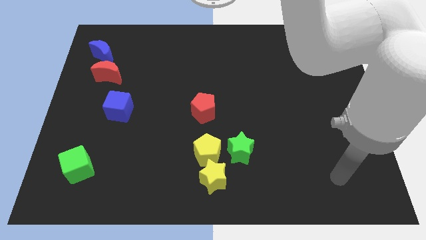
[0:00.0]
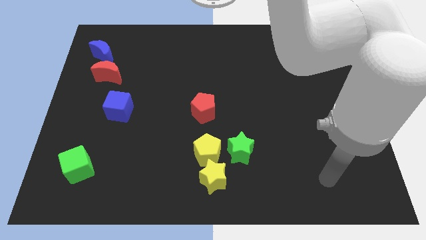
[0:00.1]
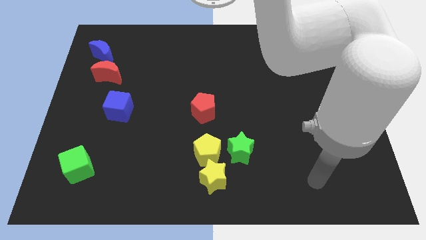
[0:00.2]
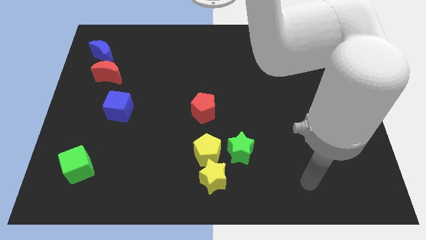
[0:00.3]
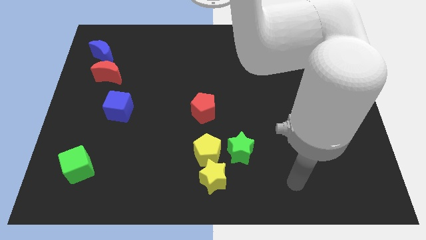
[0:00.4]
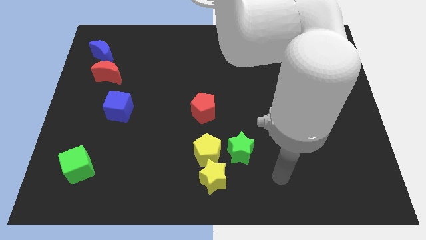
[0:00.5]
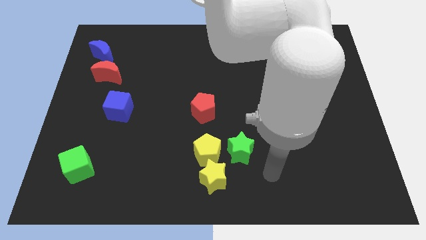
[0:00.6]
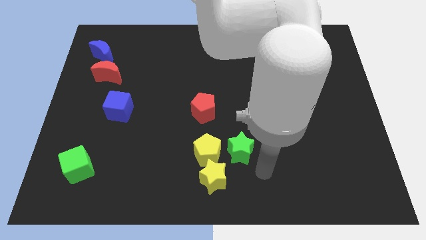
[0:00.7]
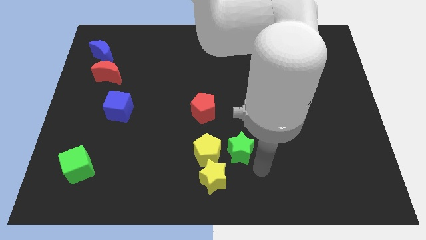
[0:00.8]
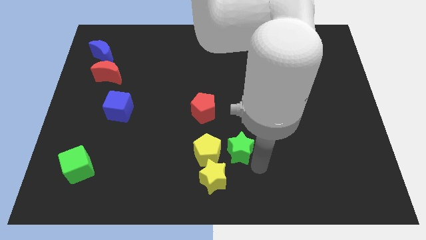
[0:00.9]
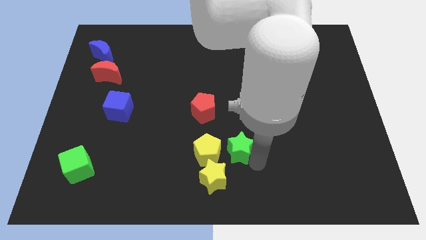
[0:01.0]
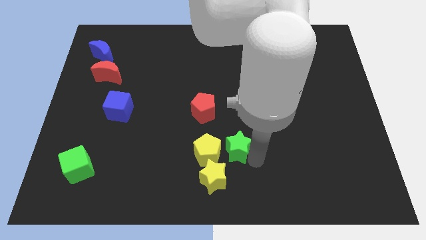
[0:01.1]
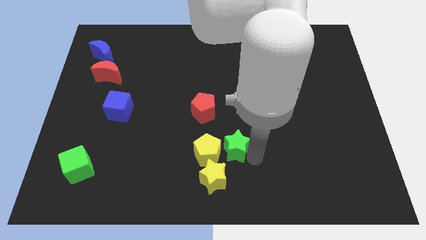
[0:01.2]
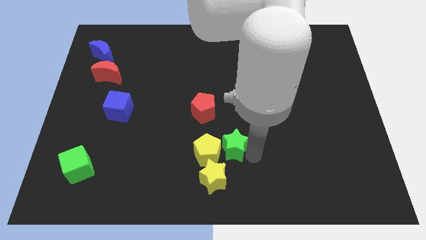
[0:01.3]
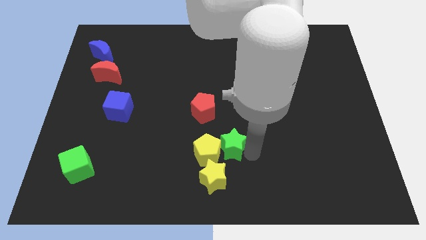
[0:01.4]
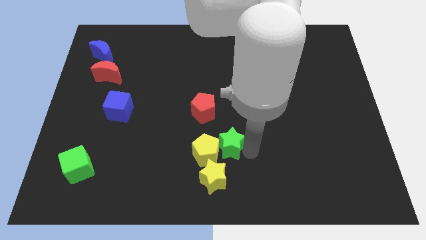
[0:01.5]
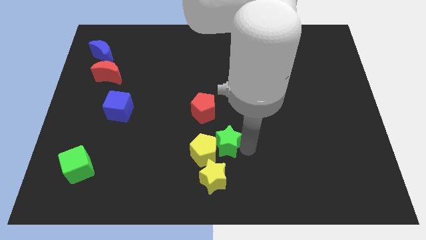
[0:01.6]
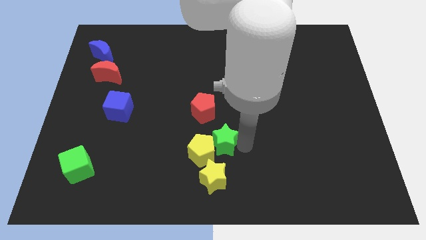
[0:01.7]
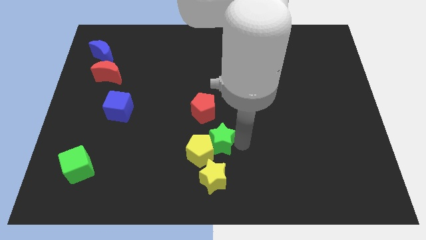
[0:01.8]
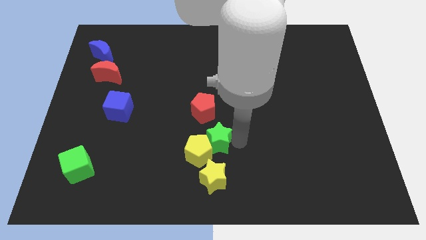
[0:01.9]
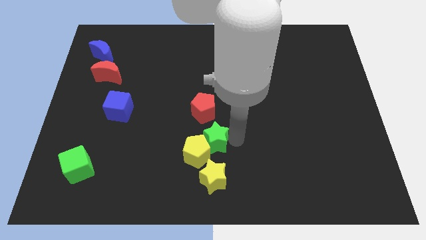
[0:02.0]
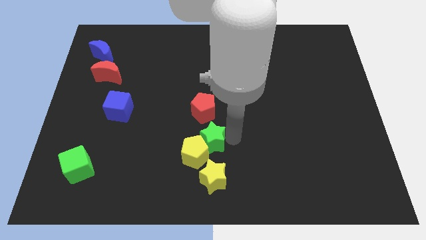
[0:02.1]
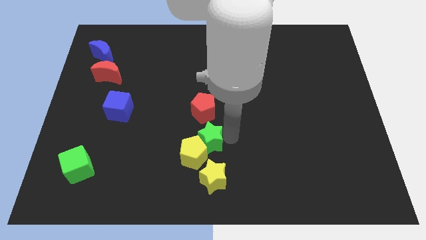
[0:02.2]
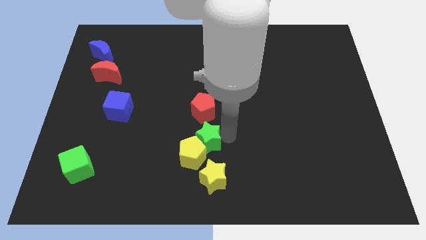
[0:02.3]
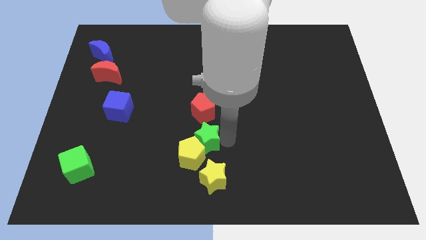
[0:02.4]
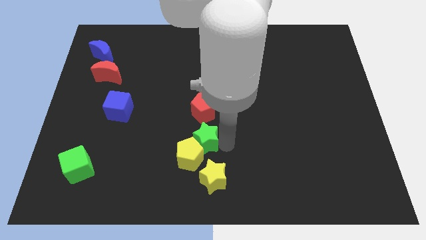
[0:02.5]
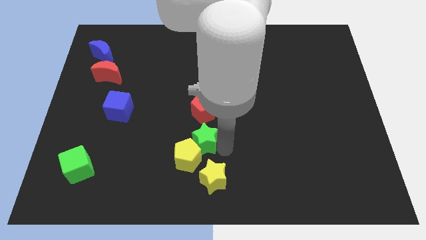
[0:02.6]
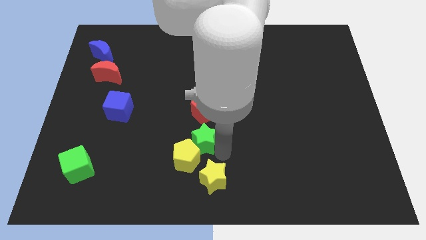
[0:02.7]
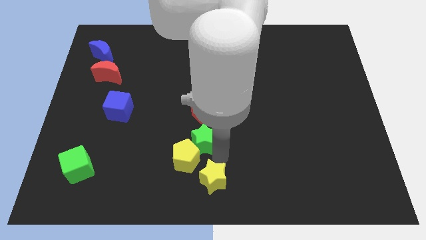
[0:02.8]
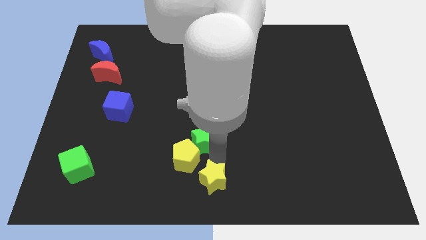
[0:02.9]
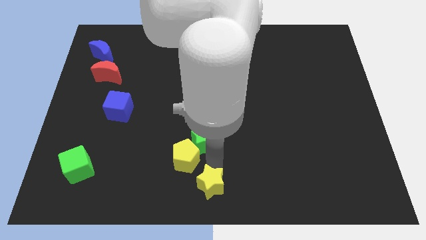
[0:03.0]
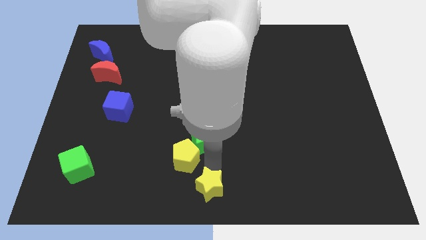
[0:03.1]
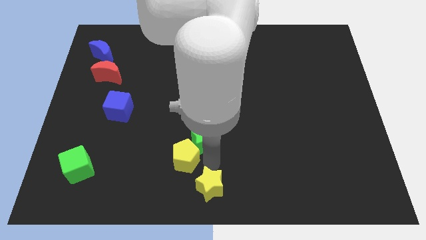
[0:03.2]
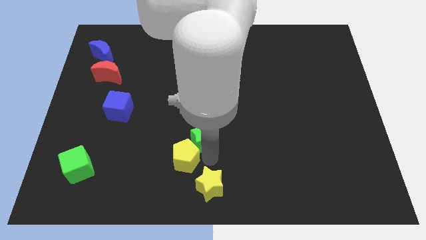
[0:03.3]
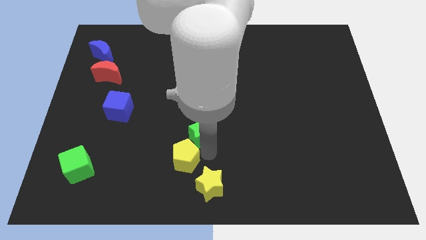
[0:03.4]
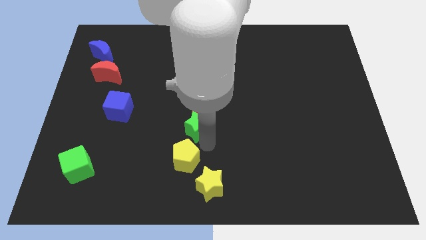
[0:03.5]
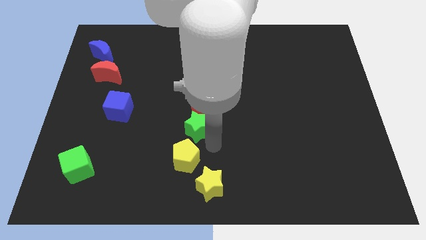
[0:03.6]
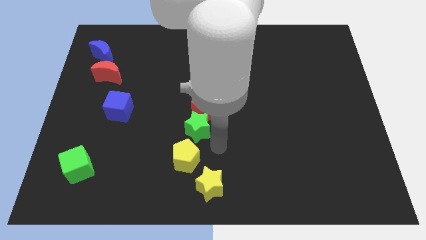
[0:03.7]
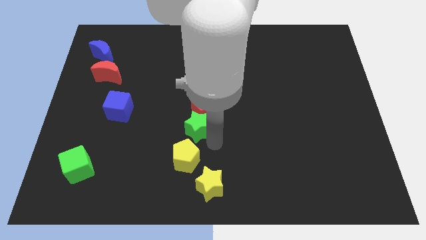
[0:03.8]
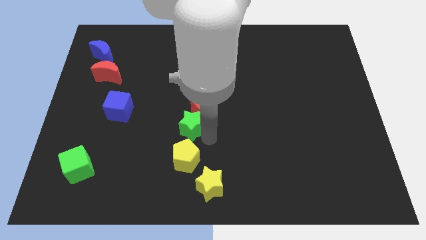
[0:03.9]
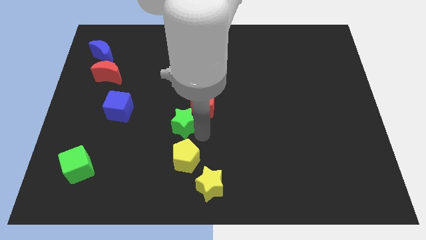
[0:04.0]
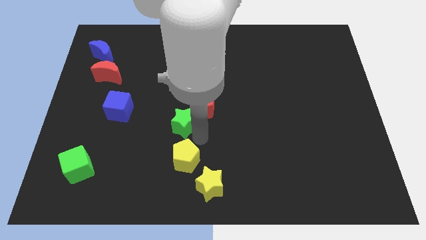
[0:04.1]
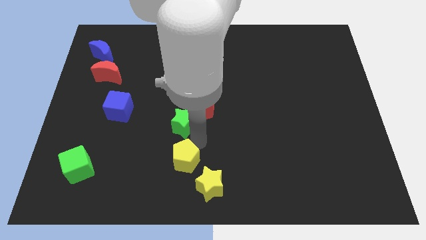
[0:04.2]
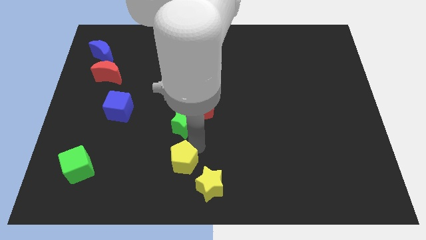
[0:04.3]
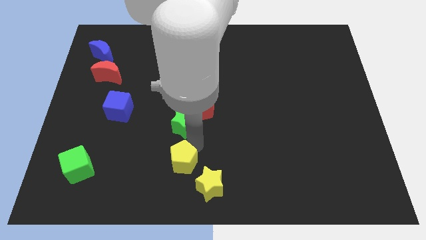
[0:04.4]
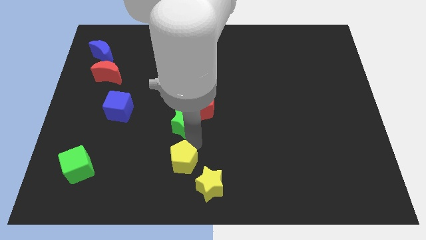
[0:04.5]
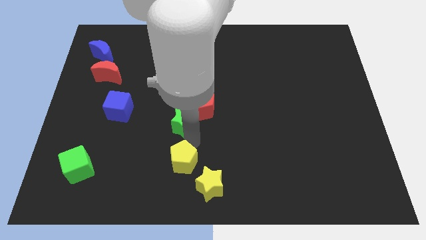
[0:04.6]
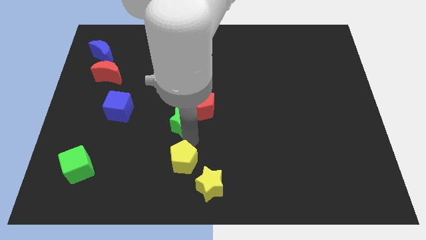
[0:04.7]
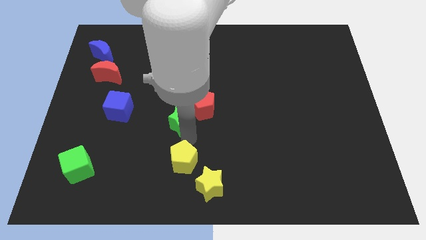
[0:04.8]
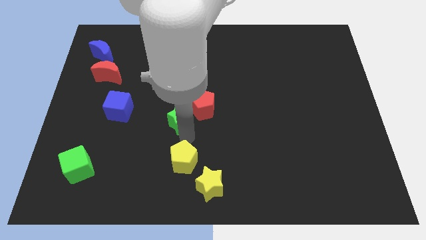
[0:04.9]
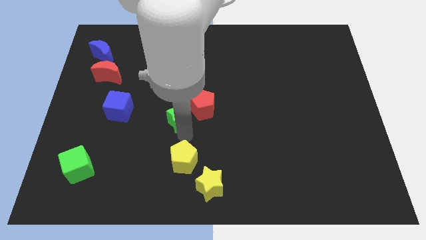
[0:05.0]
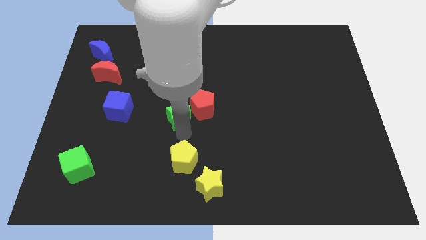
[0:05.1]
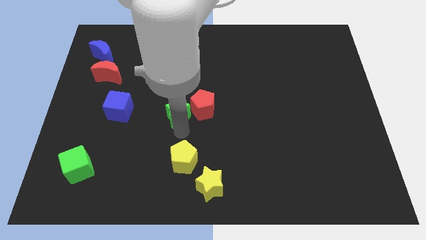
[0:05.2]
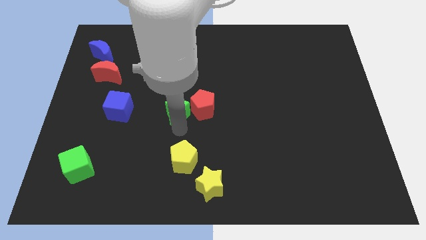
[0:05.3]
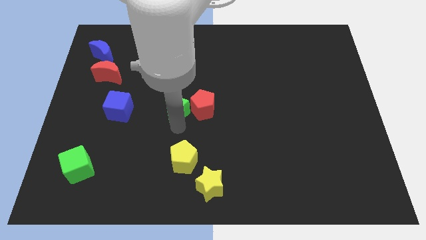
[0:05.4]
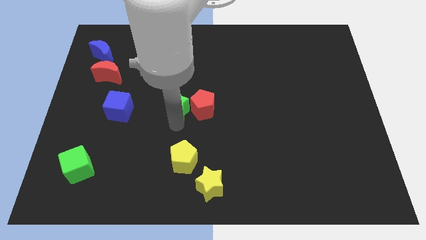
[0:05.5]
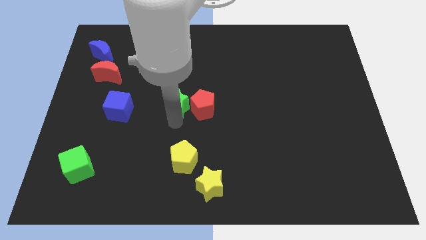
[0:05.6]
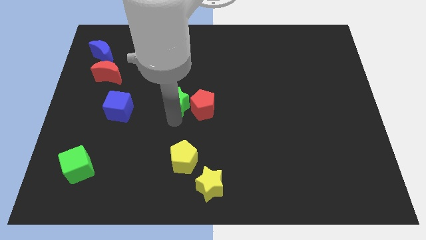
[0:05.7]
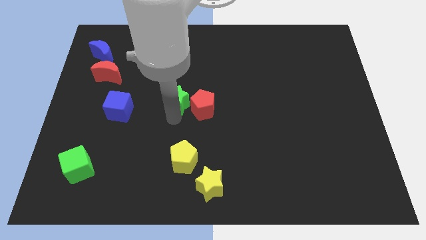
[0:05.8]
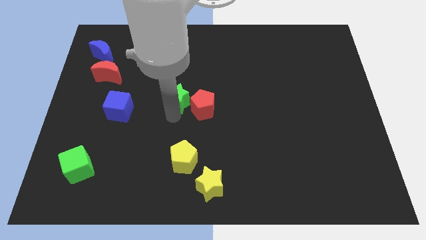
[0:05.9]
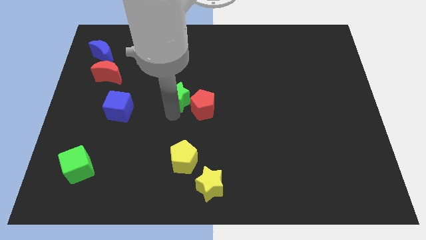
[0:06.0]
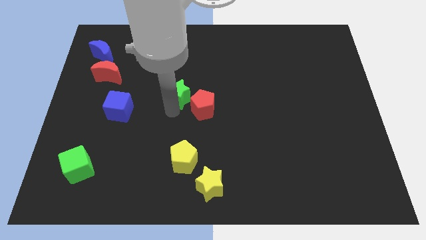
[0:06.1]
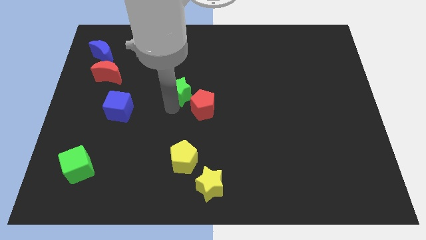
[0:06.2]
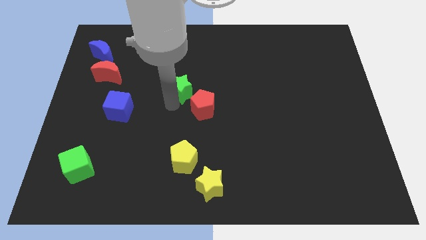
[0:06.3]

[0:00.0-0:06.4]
slide the green star above the red pentagon
